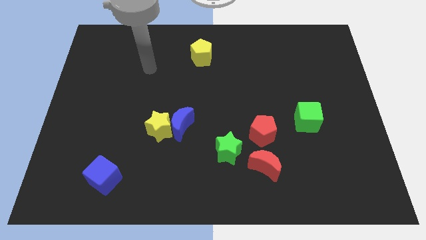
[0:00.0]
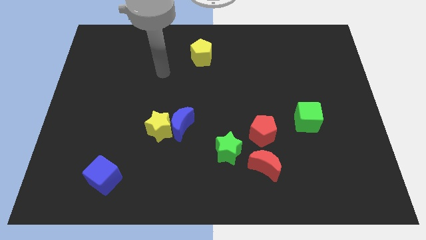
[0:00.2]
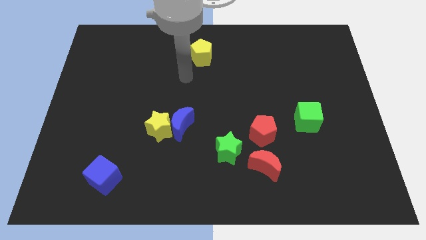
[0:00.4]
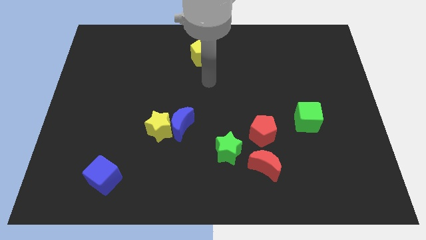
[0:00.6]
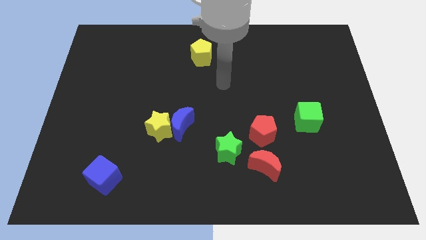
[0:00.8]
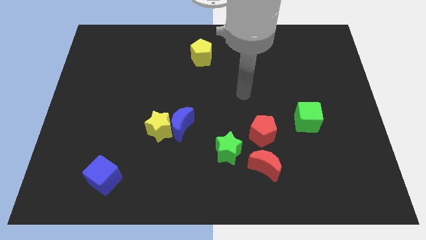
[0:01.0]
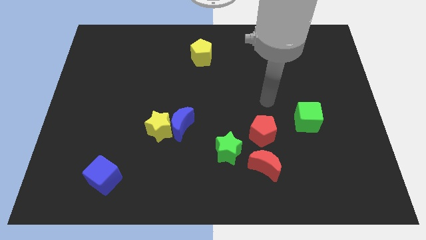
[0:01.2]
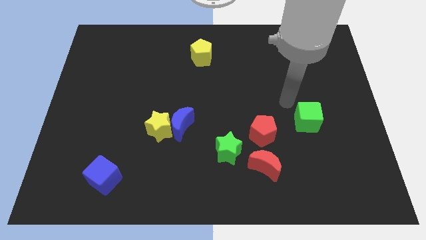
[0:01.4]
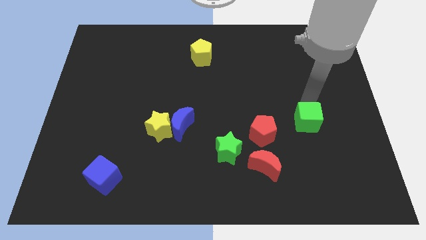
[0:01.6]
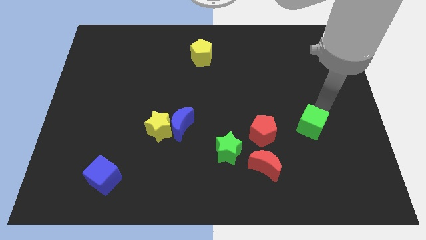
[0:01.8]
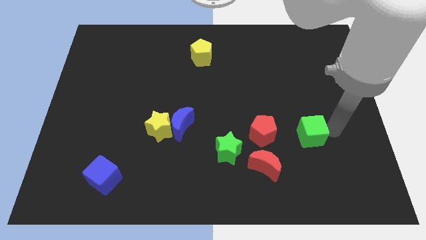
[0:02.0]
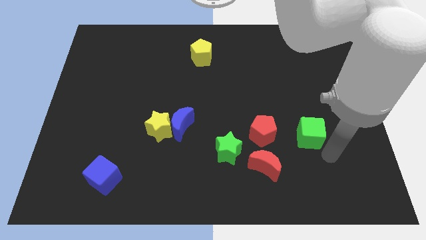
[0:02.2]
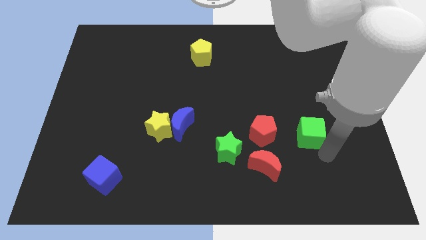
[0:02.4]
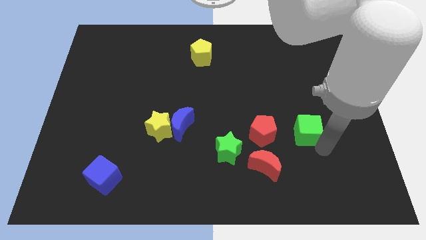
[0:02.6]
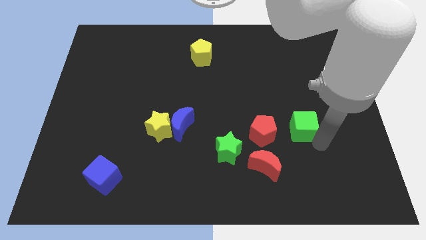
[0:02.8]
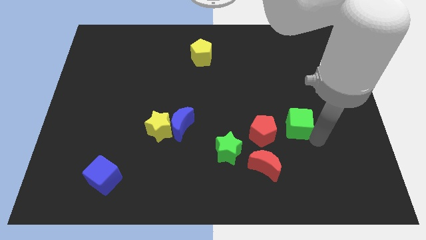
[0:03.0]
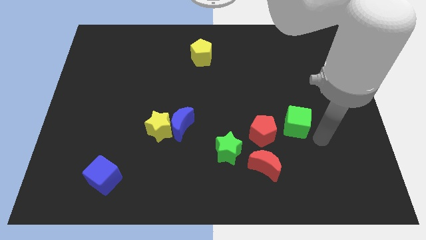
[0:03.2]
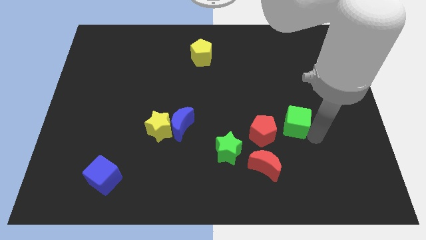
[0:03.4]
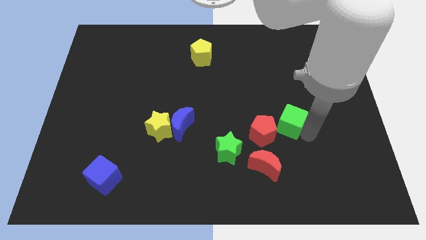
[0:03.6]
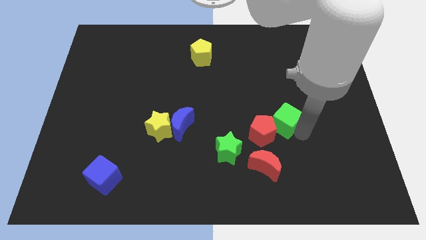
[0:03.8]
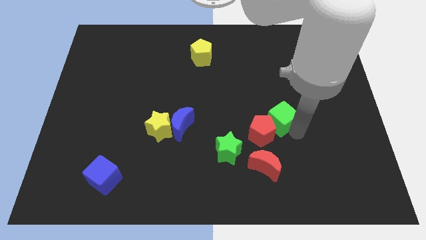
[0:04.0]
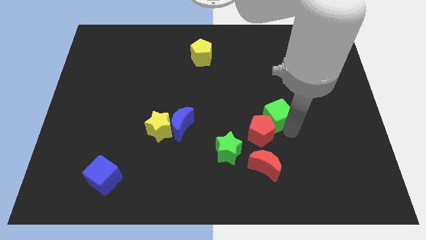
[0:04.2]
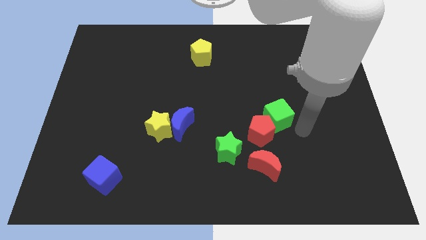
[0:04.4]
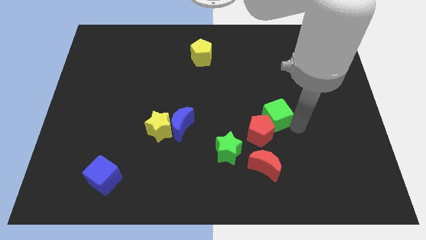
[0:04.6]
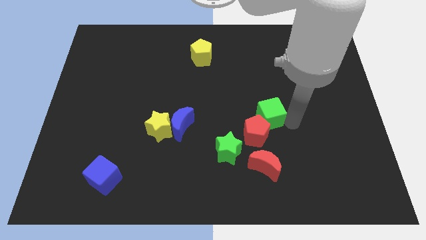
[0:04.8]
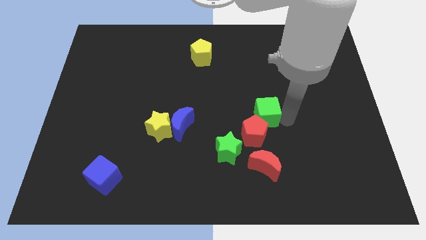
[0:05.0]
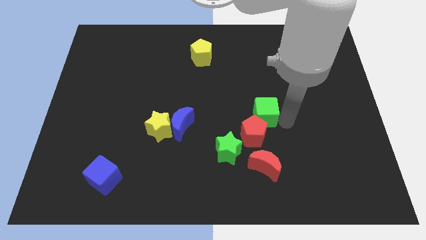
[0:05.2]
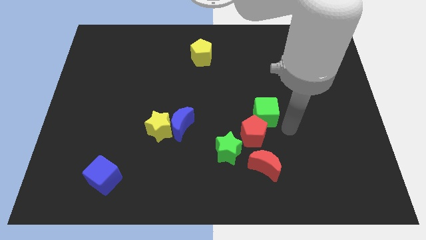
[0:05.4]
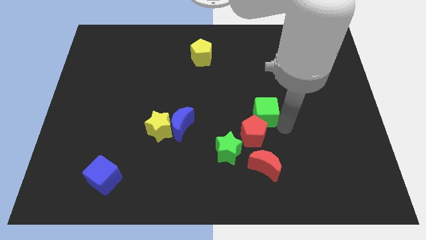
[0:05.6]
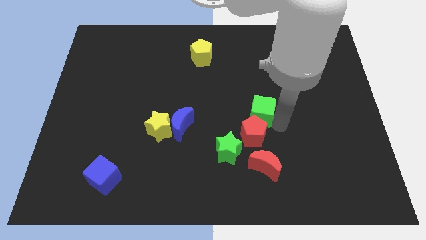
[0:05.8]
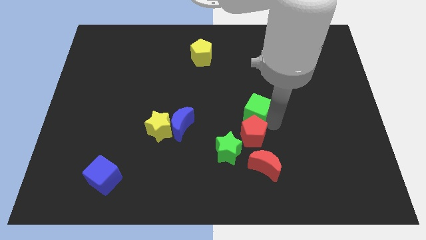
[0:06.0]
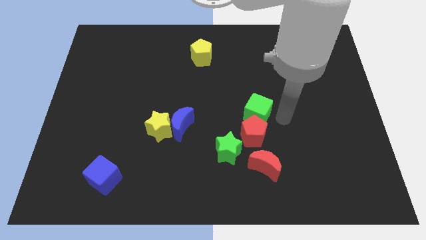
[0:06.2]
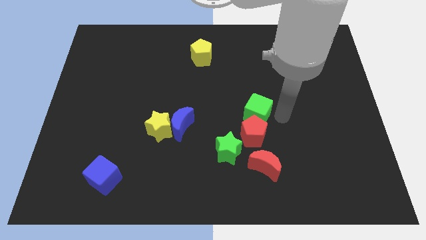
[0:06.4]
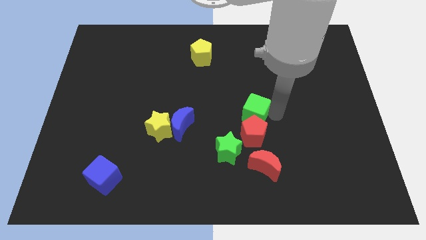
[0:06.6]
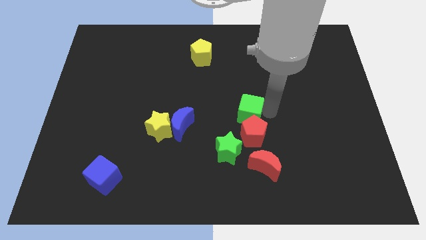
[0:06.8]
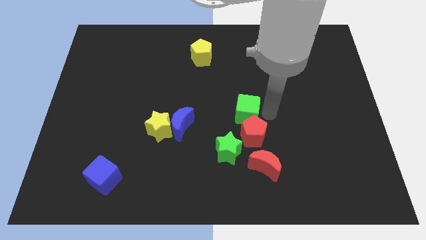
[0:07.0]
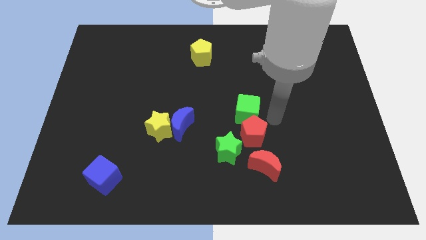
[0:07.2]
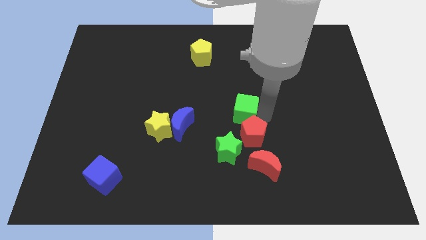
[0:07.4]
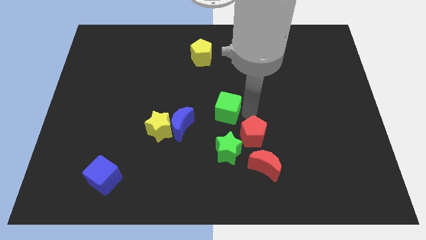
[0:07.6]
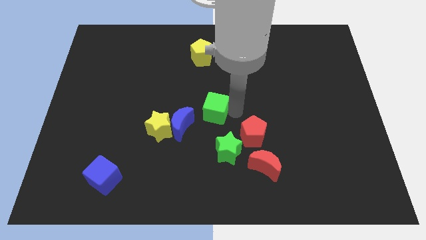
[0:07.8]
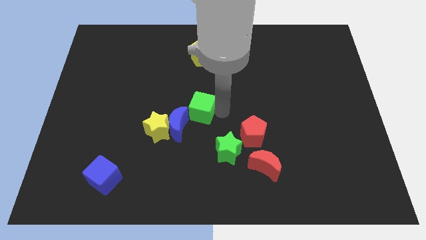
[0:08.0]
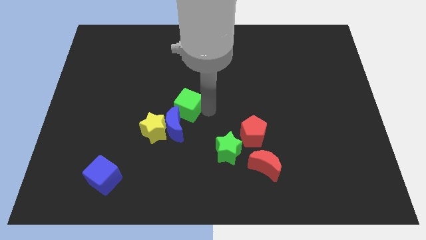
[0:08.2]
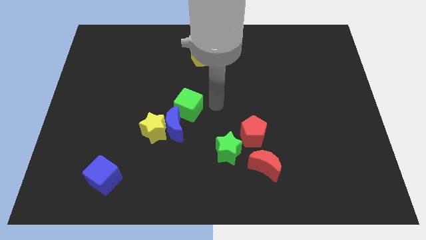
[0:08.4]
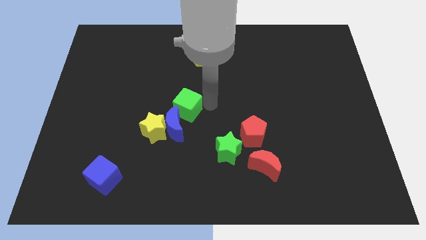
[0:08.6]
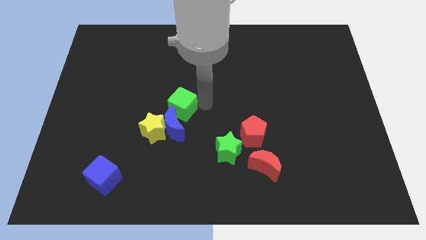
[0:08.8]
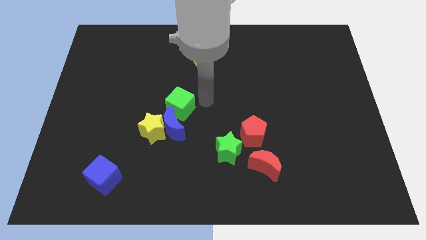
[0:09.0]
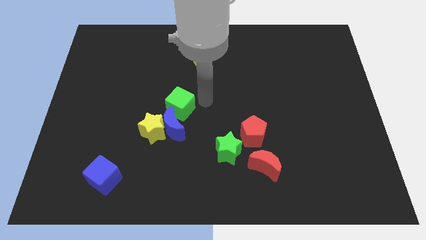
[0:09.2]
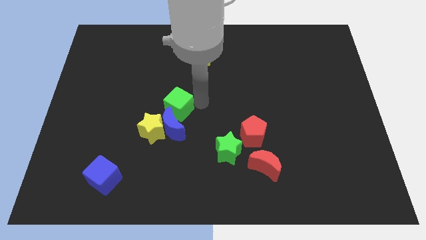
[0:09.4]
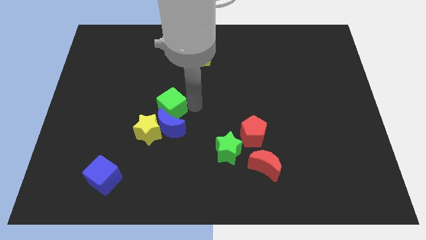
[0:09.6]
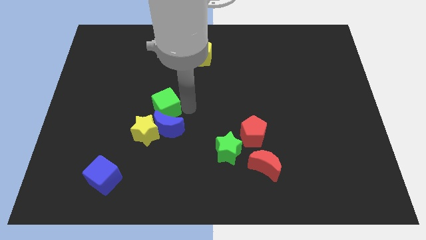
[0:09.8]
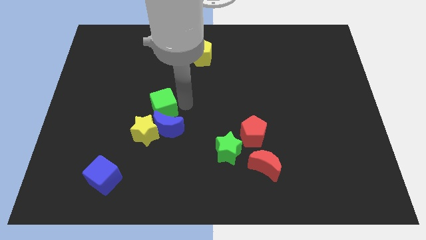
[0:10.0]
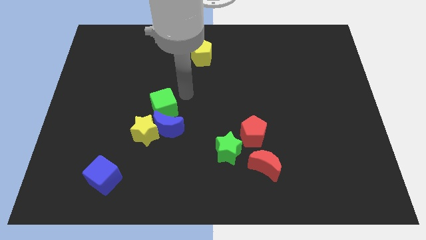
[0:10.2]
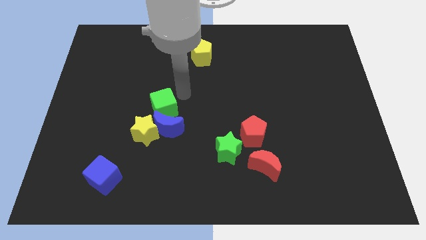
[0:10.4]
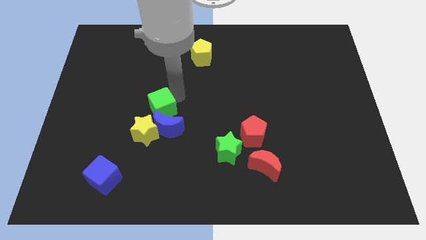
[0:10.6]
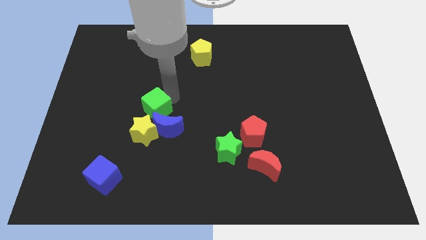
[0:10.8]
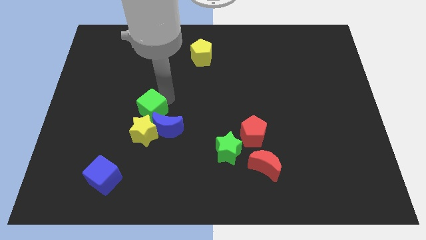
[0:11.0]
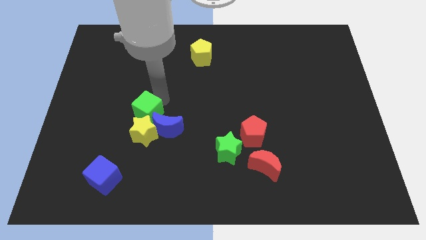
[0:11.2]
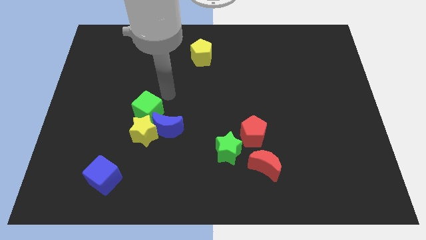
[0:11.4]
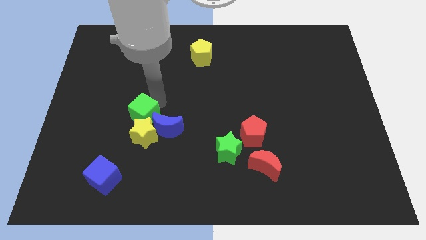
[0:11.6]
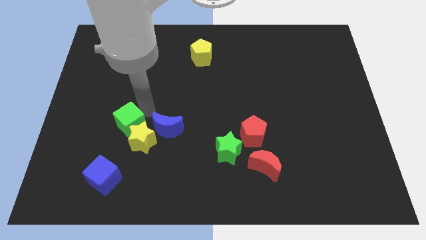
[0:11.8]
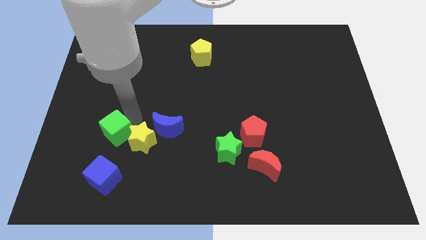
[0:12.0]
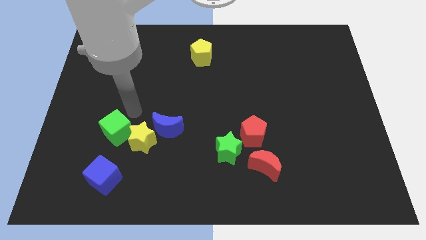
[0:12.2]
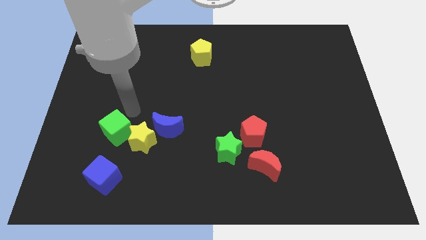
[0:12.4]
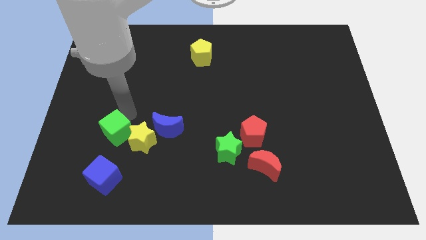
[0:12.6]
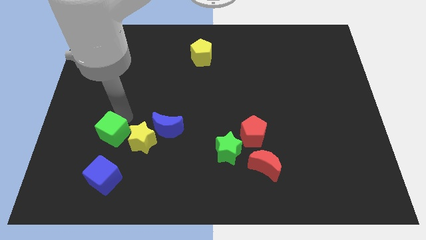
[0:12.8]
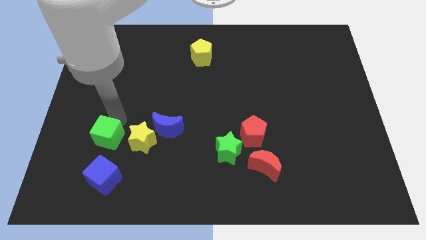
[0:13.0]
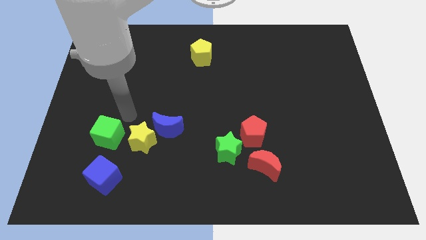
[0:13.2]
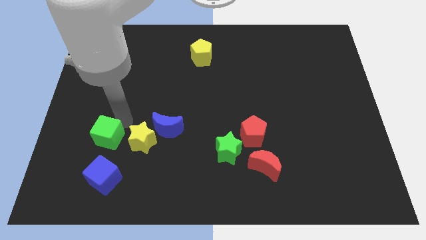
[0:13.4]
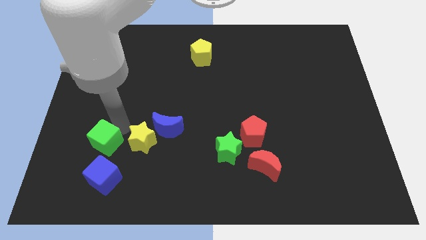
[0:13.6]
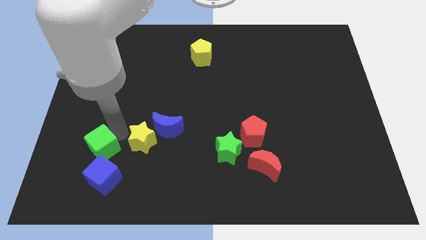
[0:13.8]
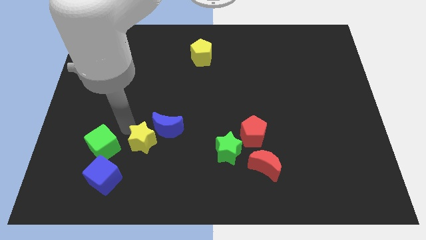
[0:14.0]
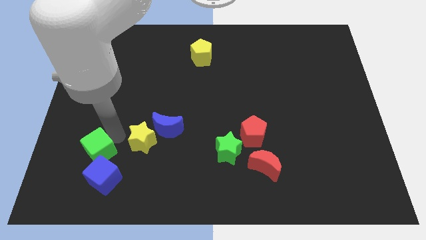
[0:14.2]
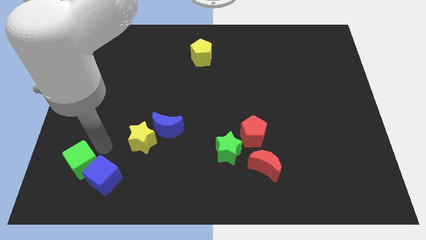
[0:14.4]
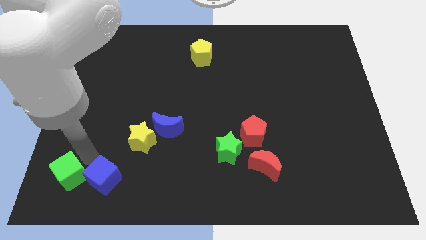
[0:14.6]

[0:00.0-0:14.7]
push the green cube to the lower left corner

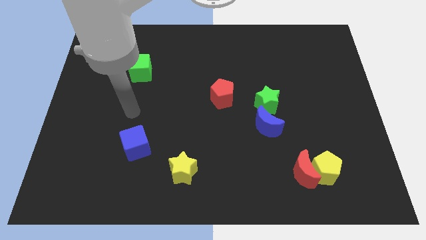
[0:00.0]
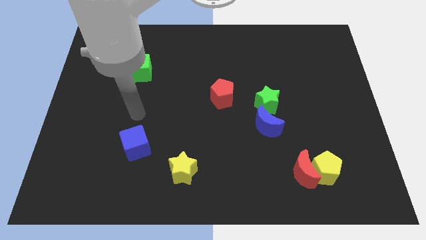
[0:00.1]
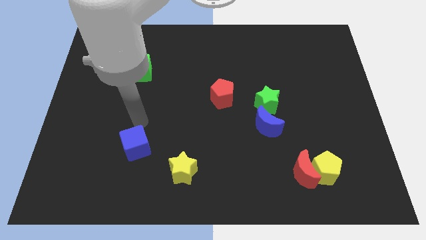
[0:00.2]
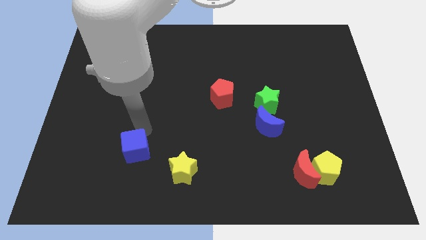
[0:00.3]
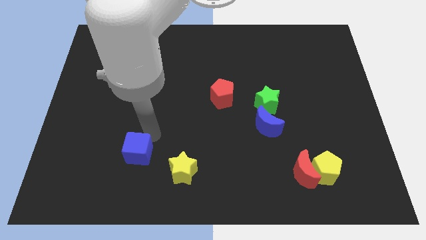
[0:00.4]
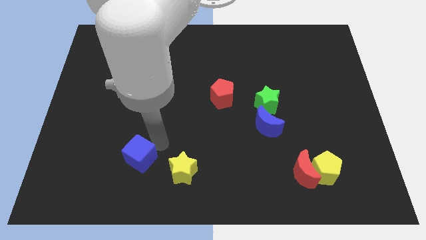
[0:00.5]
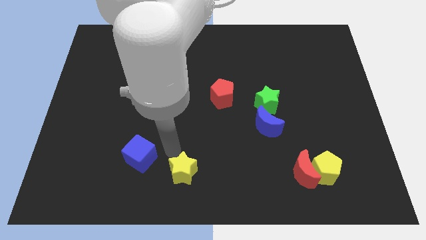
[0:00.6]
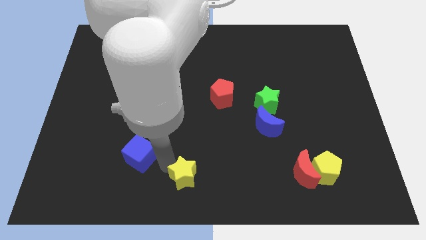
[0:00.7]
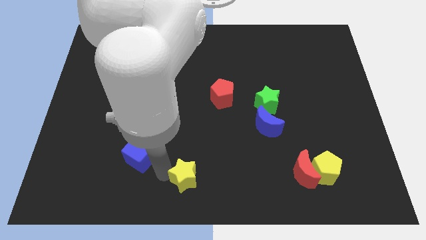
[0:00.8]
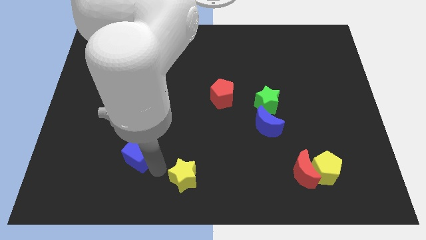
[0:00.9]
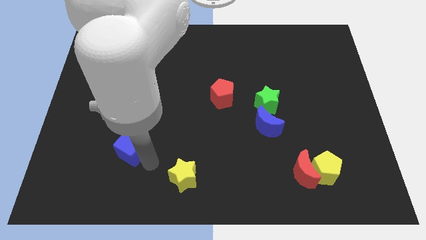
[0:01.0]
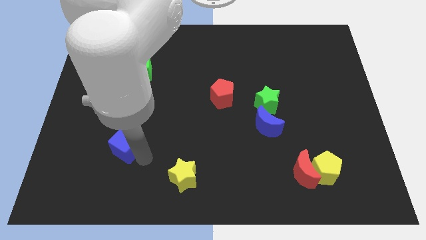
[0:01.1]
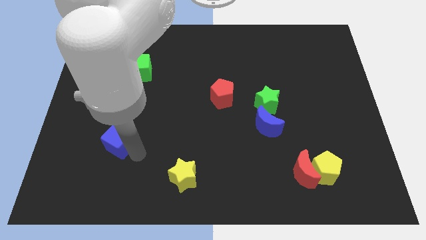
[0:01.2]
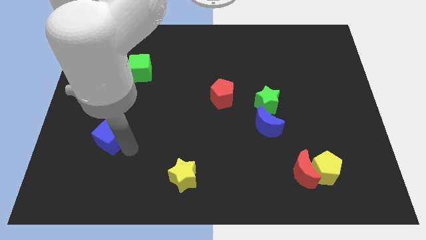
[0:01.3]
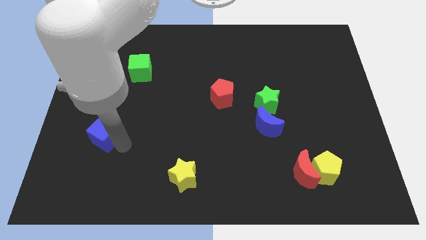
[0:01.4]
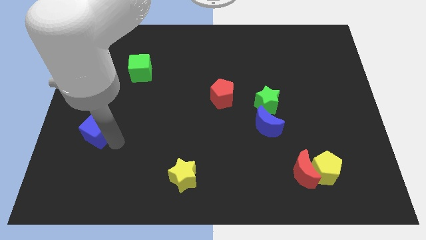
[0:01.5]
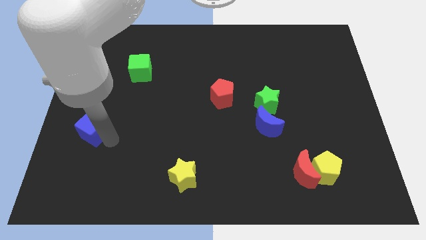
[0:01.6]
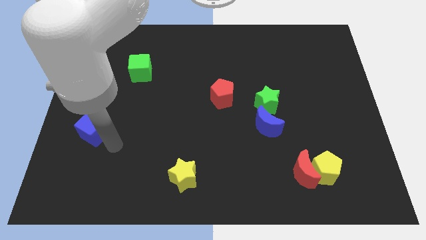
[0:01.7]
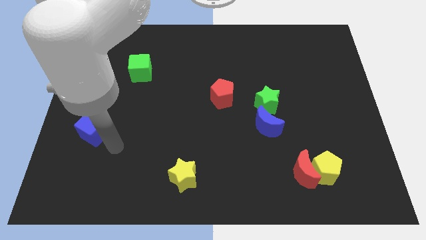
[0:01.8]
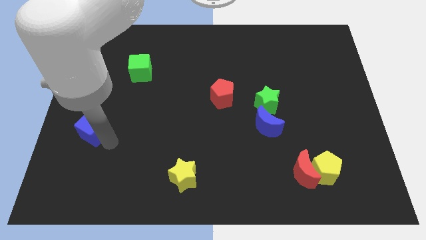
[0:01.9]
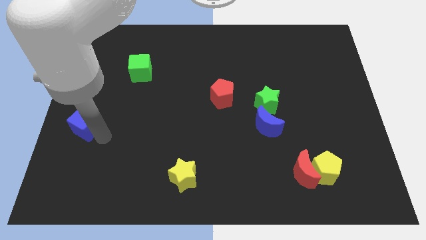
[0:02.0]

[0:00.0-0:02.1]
slide the blue cube to the left side
